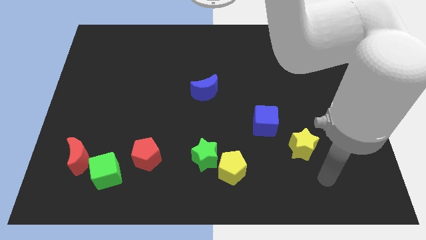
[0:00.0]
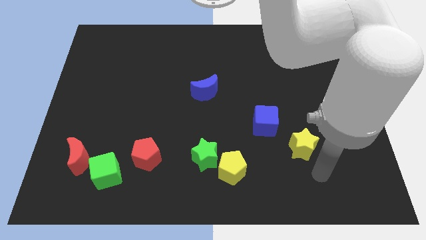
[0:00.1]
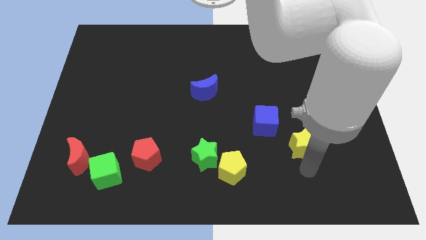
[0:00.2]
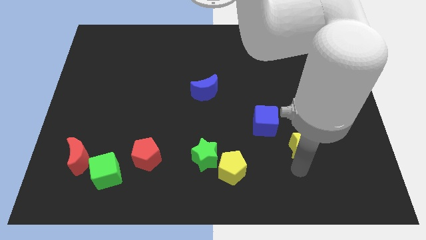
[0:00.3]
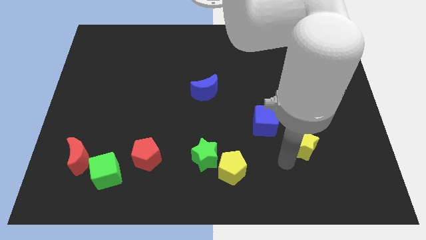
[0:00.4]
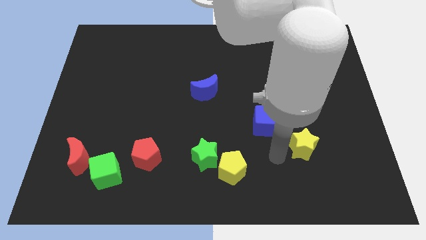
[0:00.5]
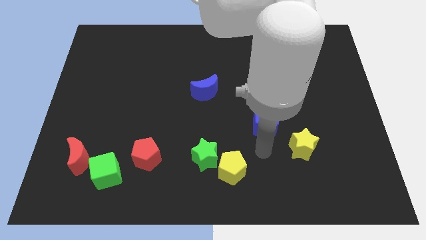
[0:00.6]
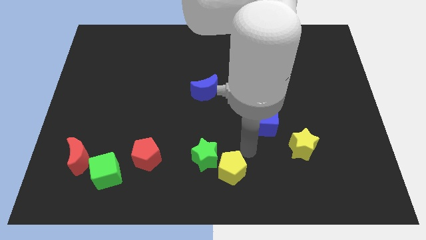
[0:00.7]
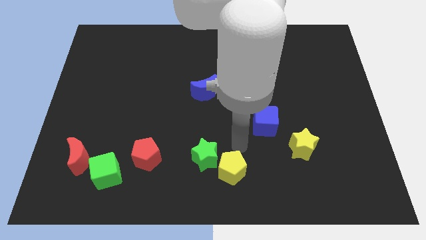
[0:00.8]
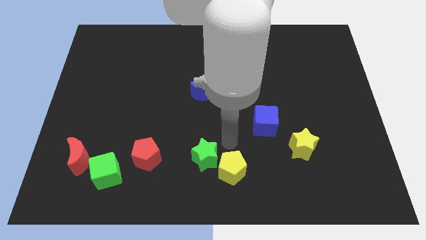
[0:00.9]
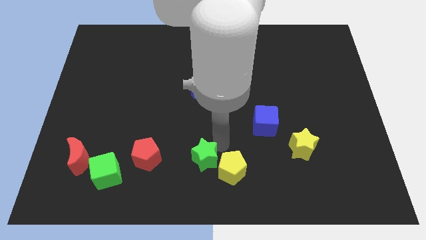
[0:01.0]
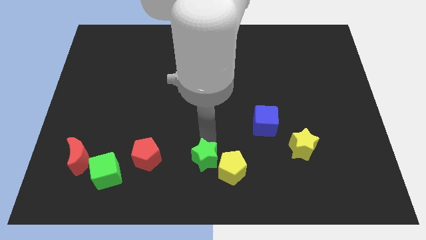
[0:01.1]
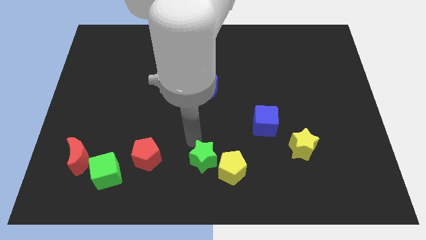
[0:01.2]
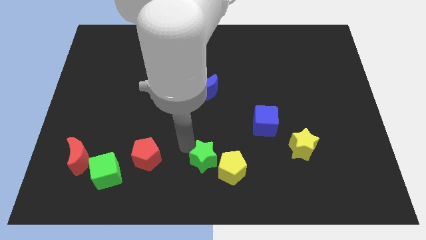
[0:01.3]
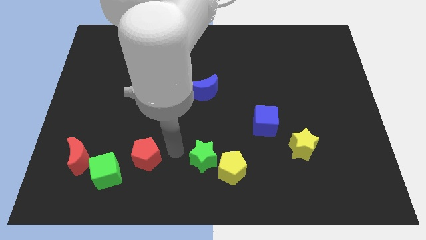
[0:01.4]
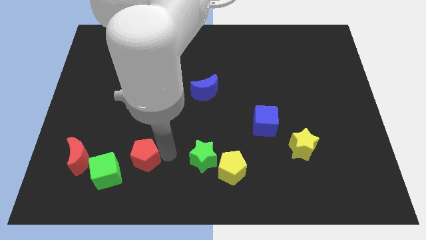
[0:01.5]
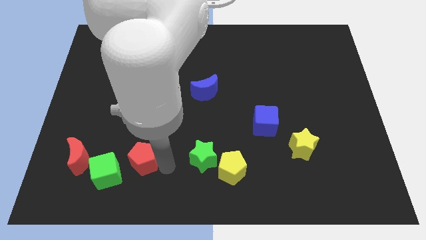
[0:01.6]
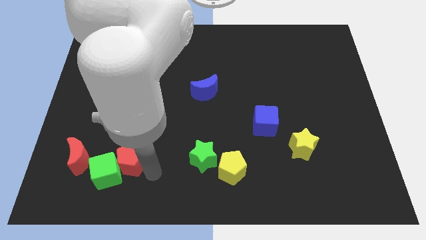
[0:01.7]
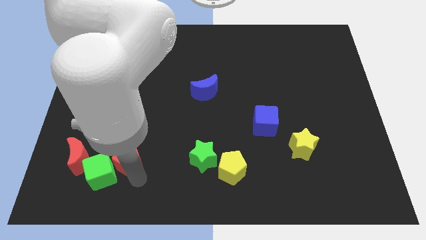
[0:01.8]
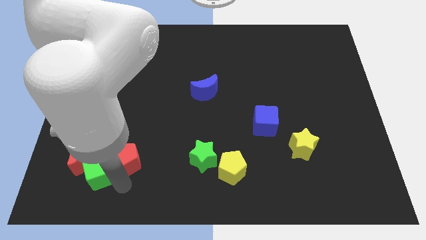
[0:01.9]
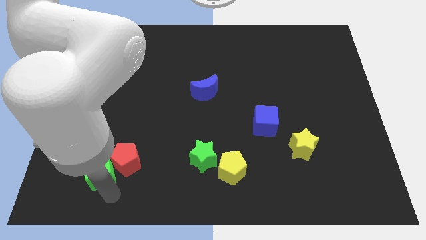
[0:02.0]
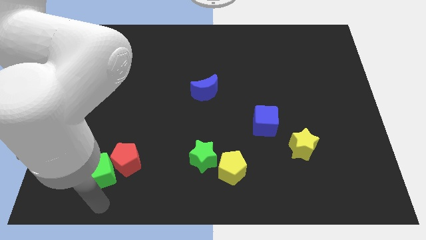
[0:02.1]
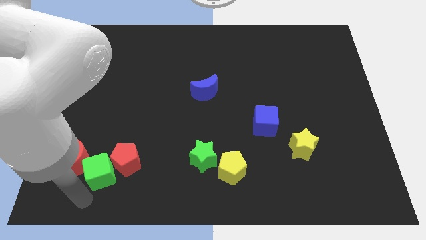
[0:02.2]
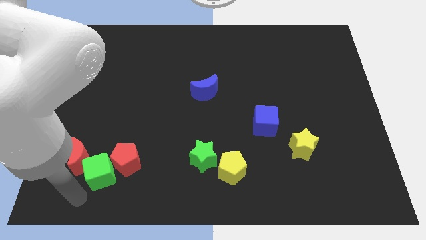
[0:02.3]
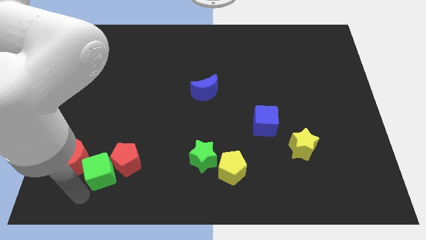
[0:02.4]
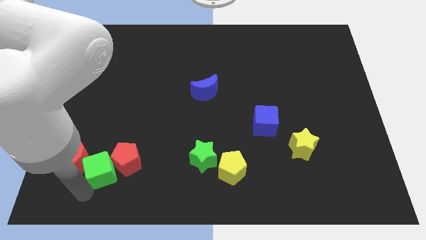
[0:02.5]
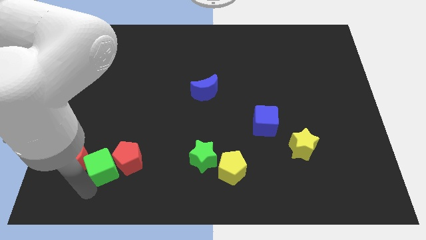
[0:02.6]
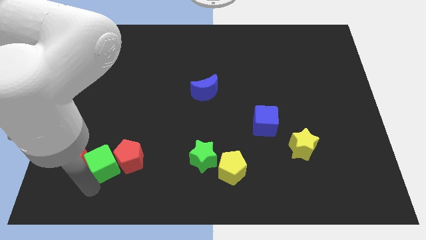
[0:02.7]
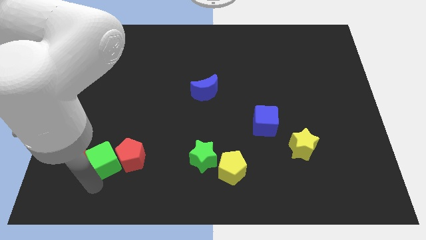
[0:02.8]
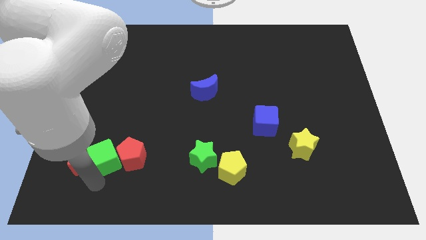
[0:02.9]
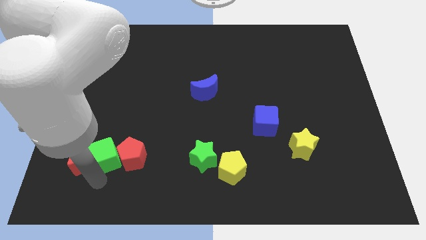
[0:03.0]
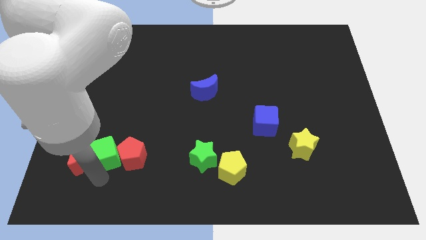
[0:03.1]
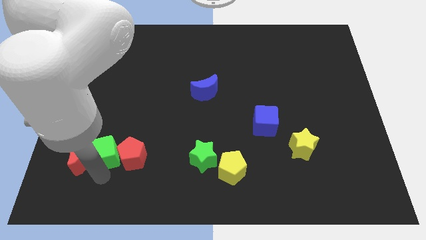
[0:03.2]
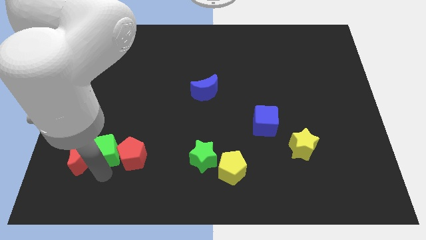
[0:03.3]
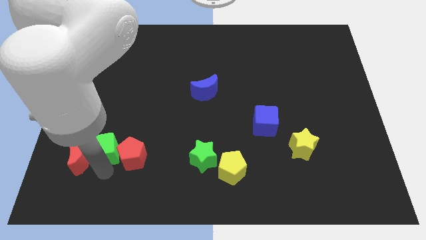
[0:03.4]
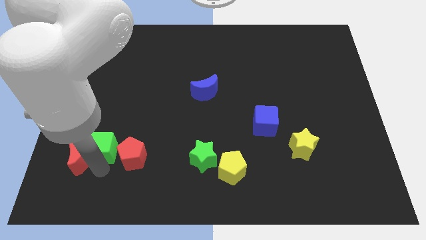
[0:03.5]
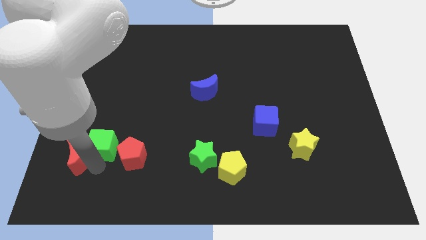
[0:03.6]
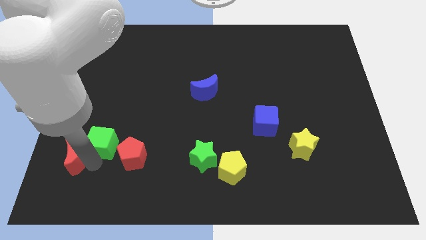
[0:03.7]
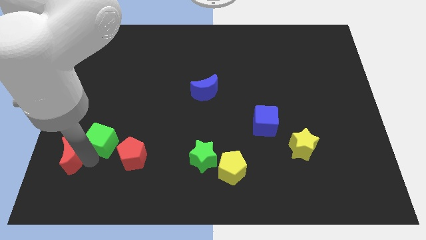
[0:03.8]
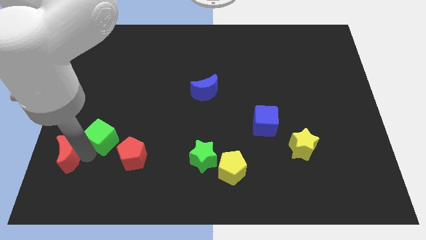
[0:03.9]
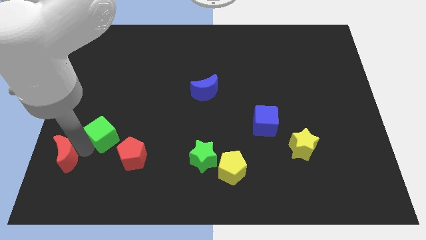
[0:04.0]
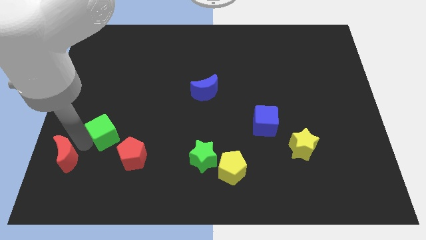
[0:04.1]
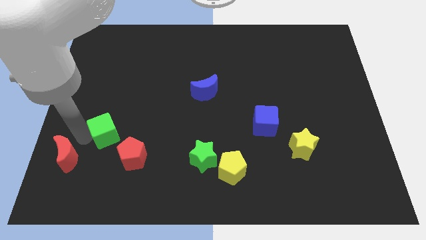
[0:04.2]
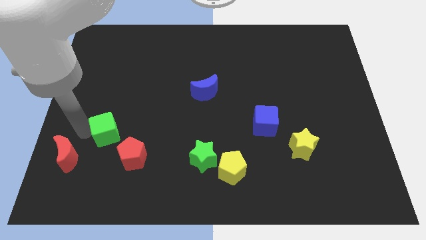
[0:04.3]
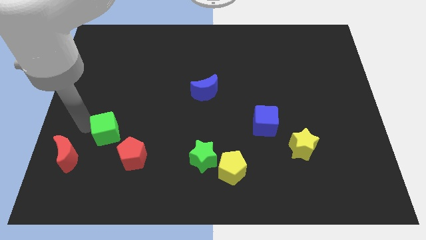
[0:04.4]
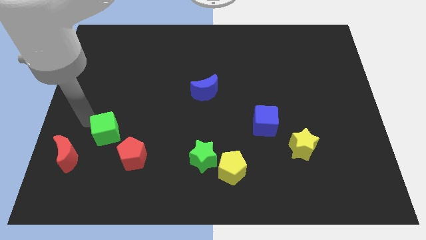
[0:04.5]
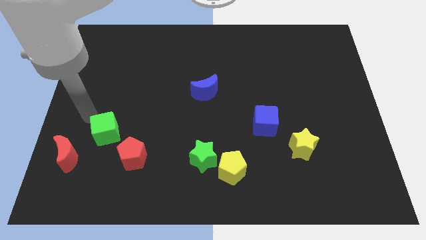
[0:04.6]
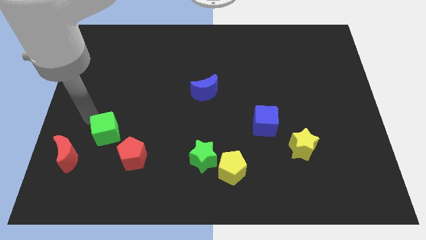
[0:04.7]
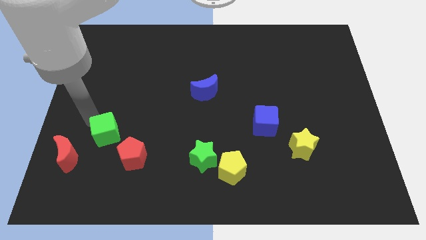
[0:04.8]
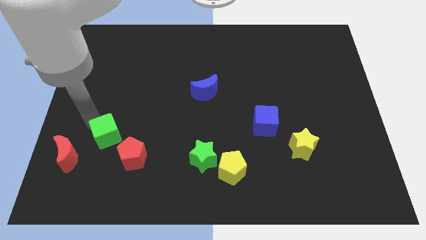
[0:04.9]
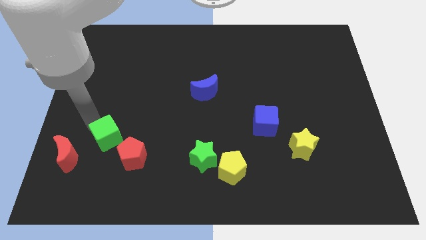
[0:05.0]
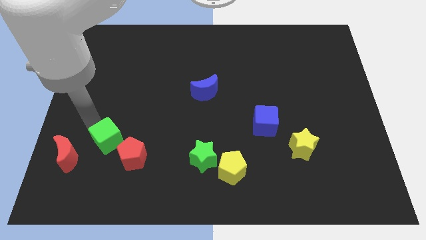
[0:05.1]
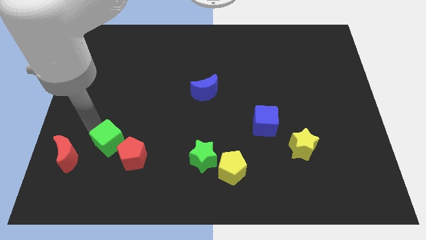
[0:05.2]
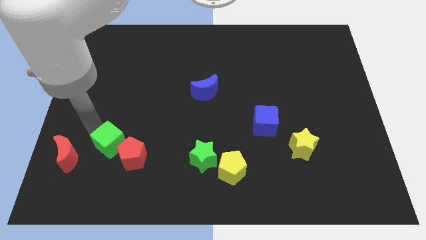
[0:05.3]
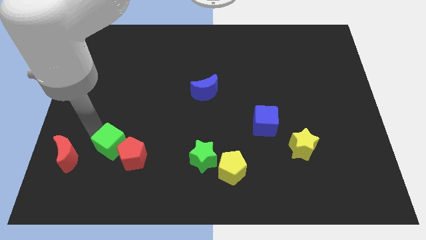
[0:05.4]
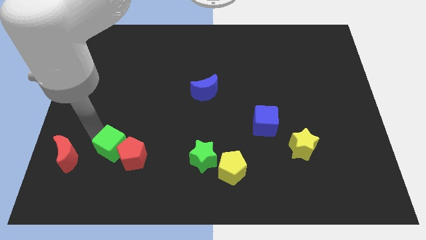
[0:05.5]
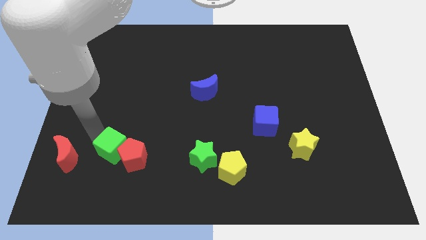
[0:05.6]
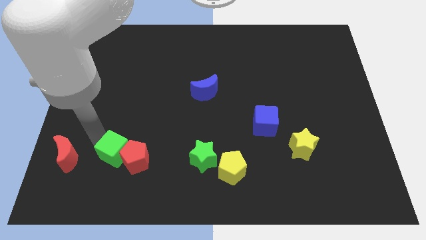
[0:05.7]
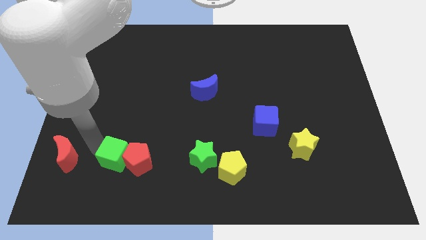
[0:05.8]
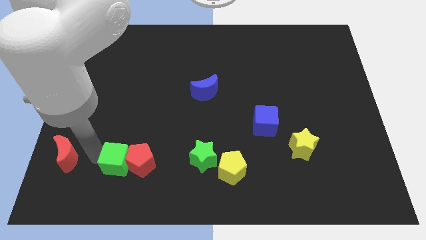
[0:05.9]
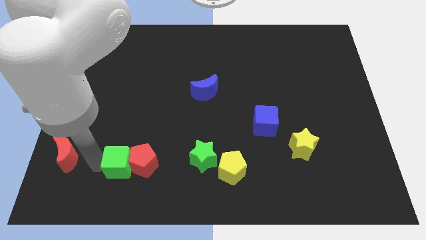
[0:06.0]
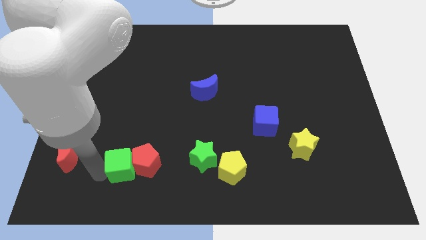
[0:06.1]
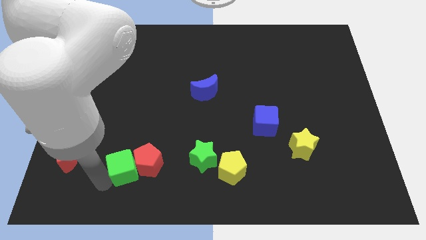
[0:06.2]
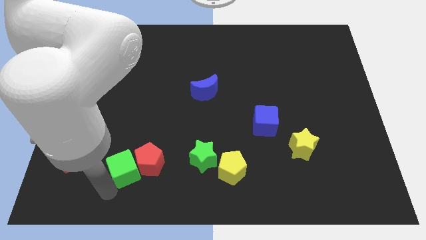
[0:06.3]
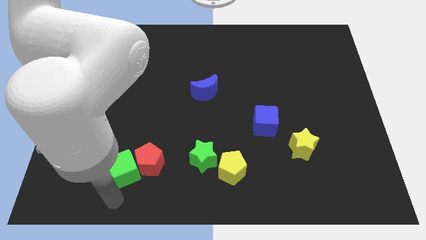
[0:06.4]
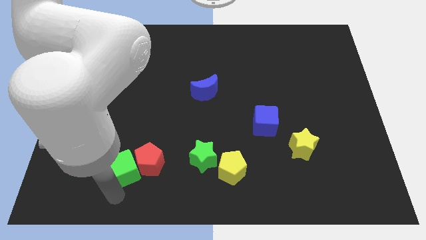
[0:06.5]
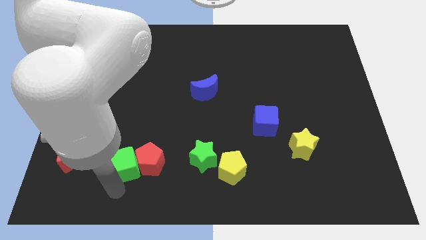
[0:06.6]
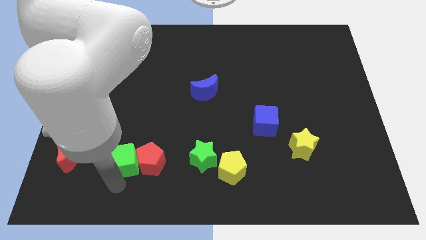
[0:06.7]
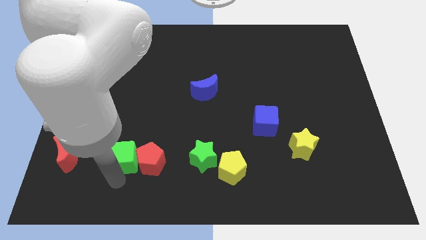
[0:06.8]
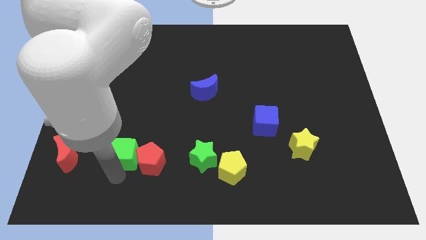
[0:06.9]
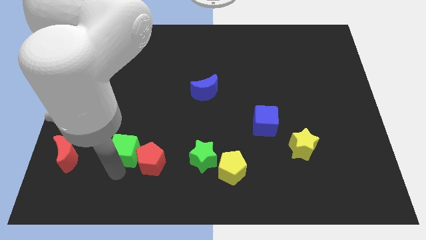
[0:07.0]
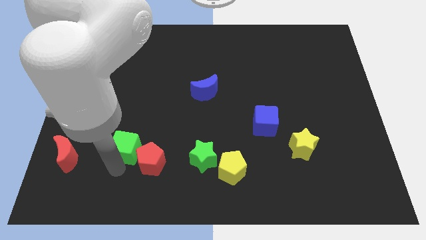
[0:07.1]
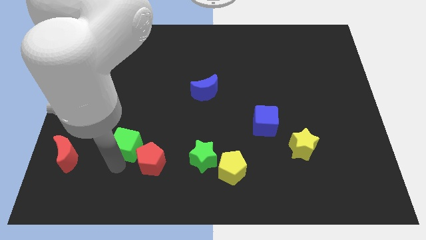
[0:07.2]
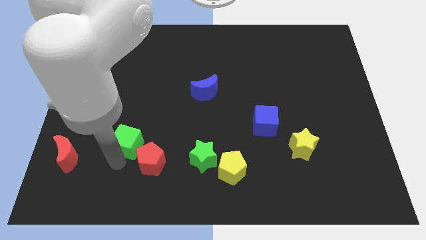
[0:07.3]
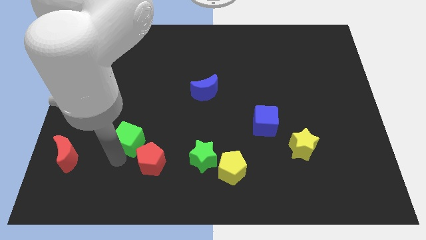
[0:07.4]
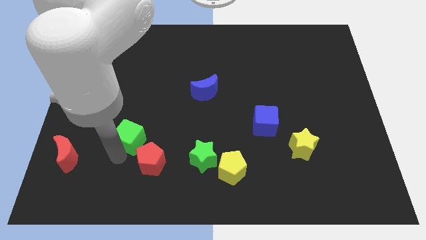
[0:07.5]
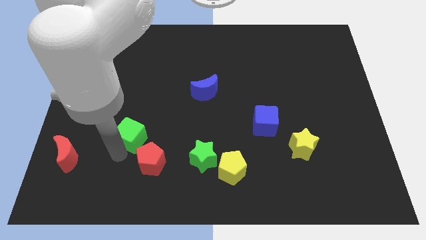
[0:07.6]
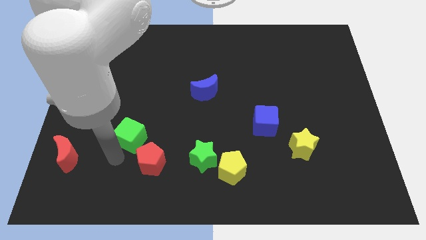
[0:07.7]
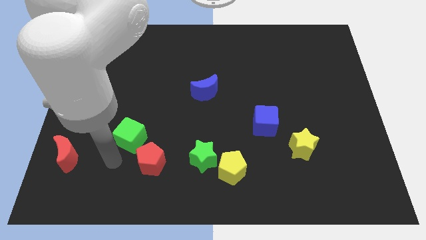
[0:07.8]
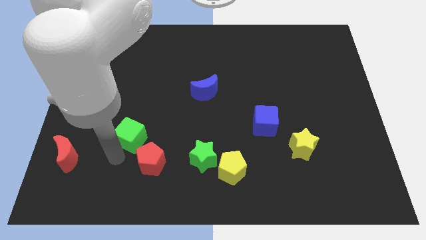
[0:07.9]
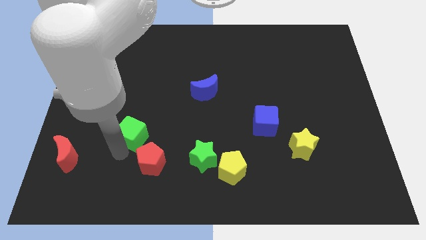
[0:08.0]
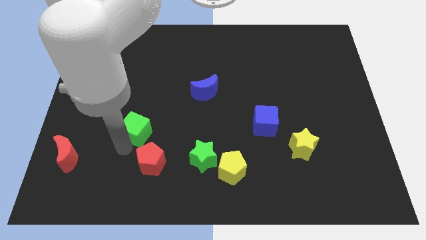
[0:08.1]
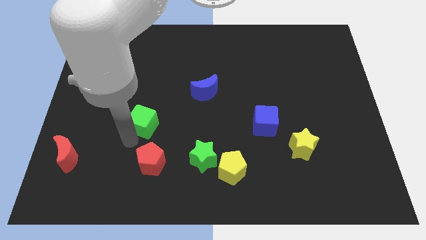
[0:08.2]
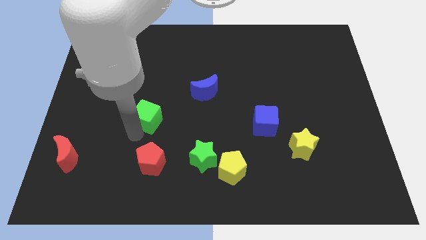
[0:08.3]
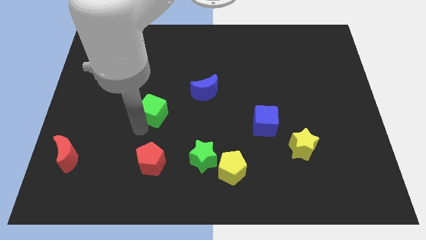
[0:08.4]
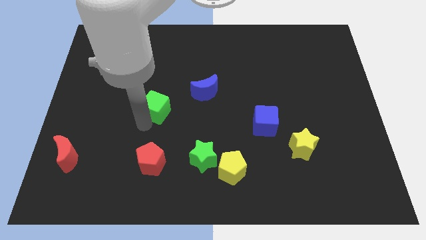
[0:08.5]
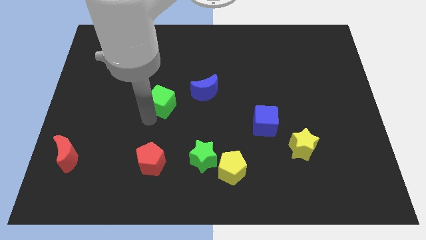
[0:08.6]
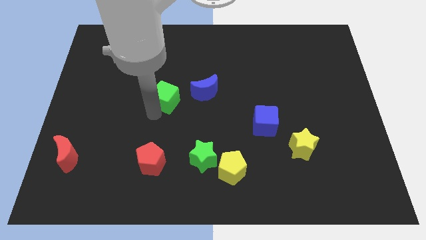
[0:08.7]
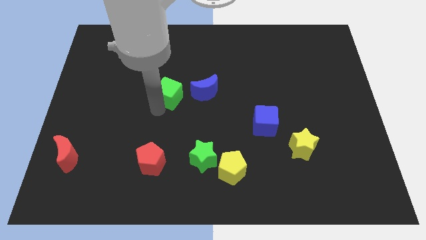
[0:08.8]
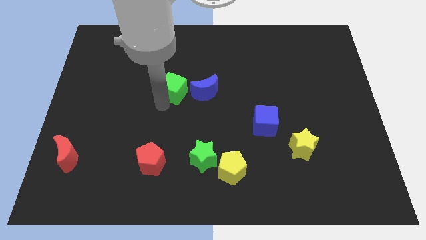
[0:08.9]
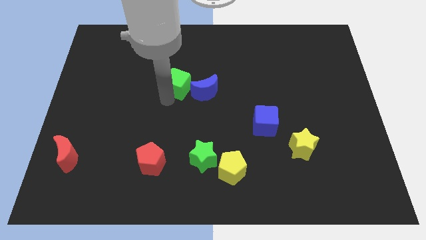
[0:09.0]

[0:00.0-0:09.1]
put the green cube to the top left side of the blue moon
